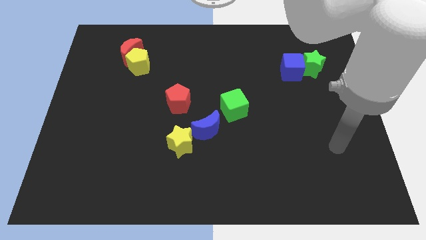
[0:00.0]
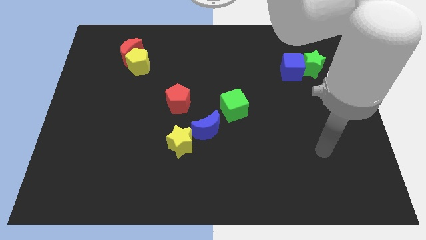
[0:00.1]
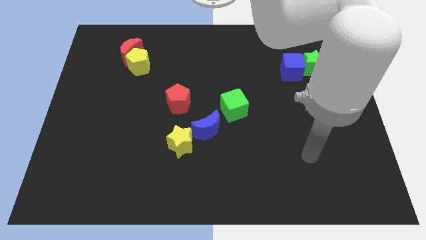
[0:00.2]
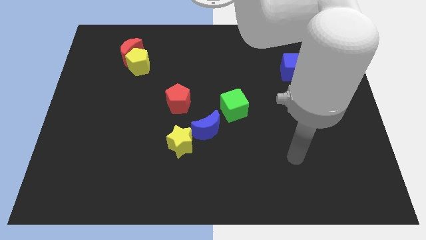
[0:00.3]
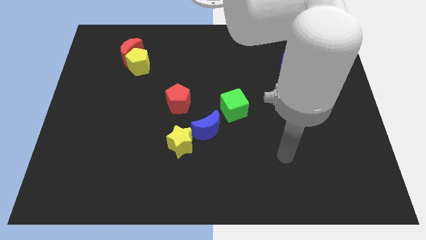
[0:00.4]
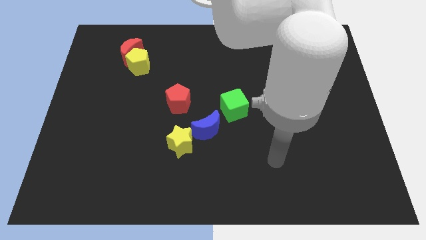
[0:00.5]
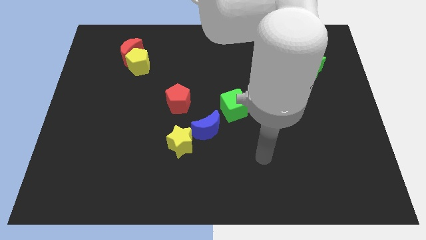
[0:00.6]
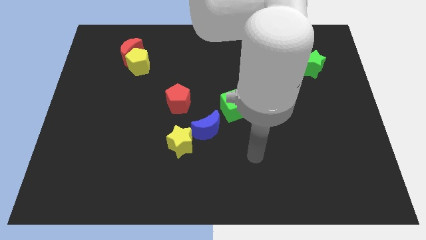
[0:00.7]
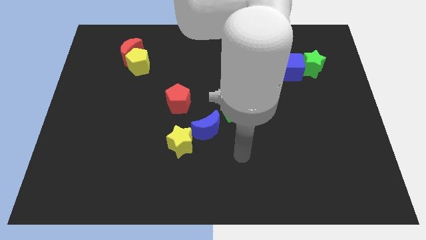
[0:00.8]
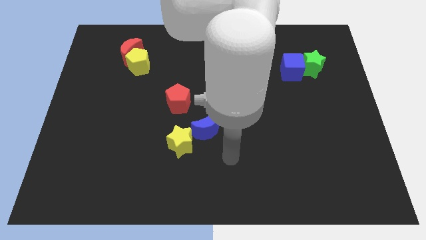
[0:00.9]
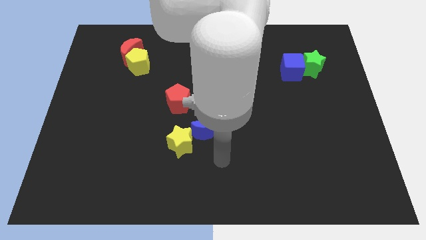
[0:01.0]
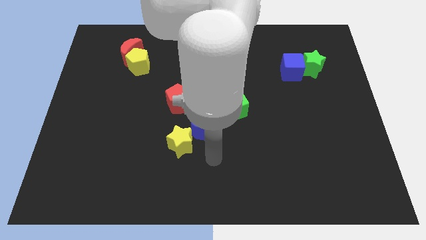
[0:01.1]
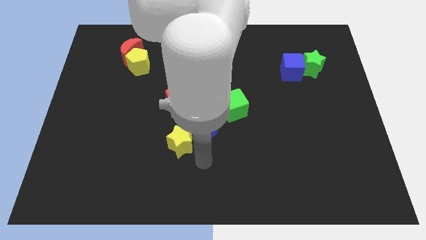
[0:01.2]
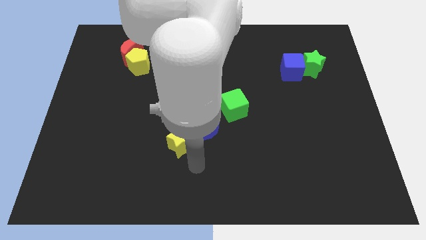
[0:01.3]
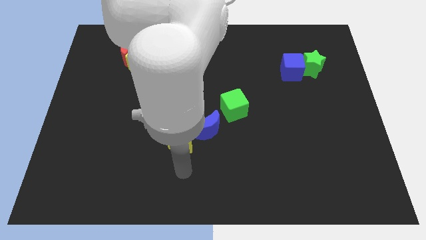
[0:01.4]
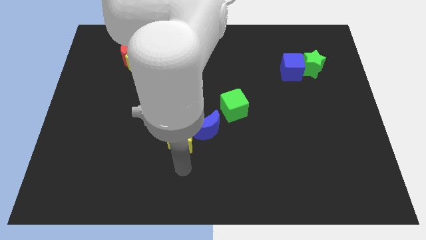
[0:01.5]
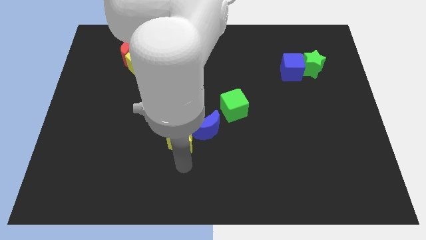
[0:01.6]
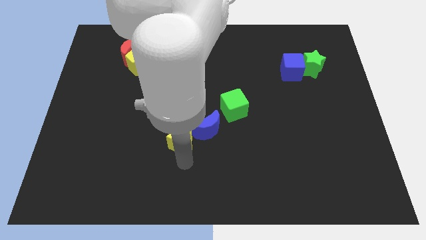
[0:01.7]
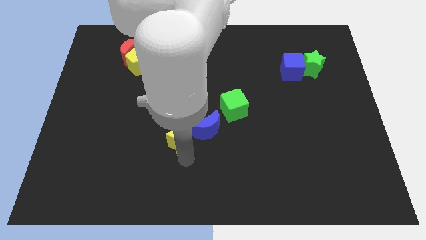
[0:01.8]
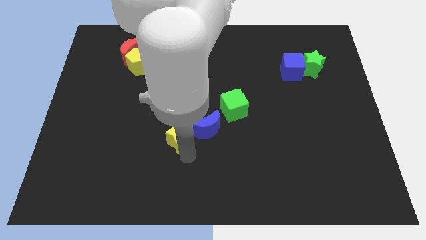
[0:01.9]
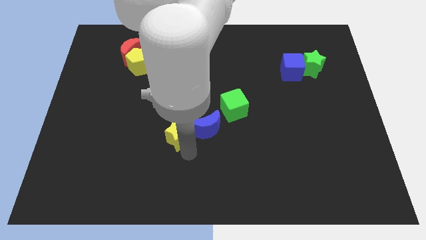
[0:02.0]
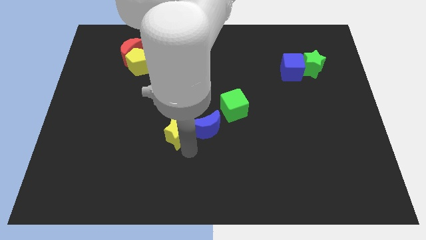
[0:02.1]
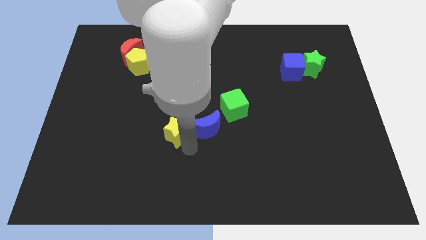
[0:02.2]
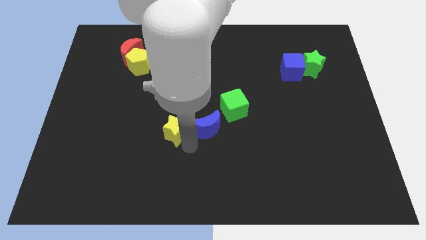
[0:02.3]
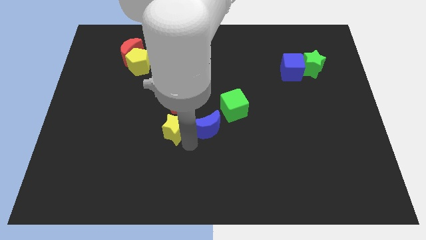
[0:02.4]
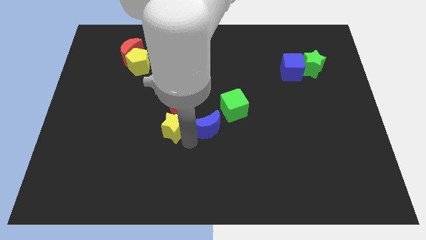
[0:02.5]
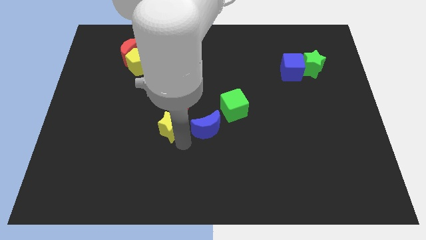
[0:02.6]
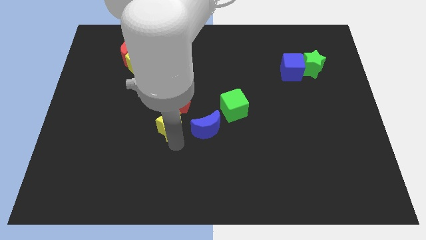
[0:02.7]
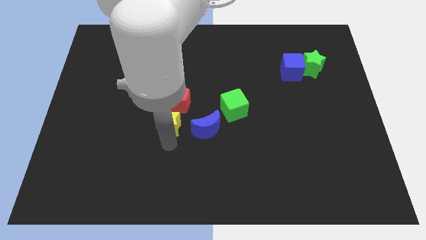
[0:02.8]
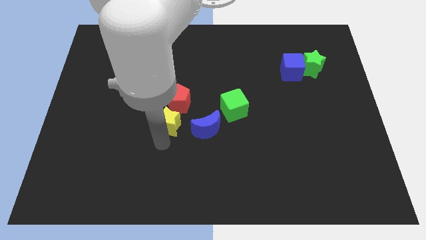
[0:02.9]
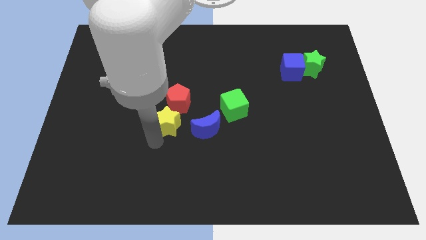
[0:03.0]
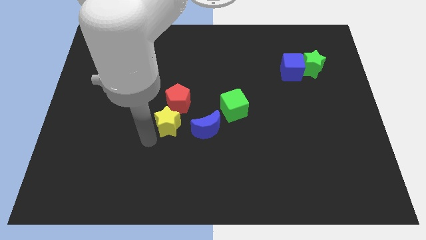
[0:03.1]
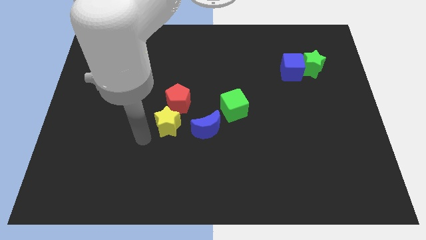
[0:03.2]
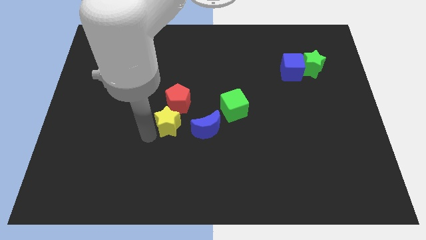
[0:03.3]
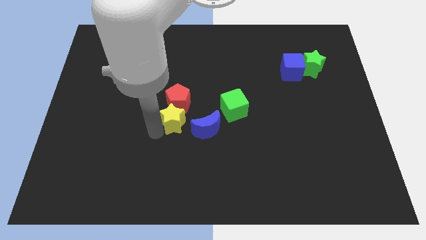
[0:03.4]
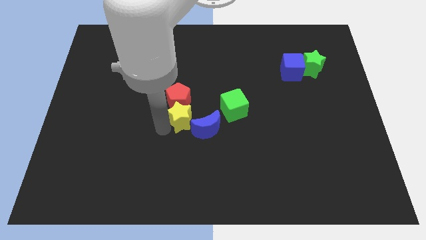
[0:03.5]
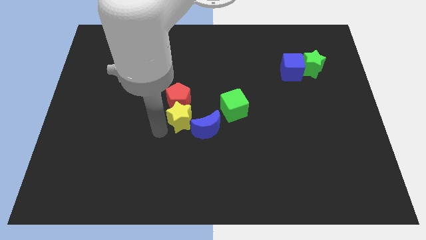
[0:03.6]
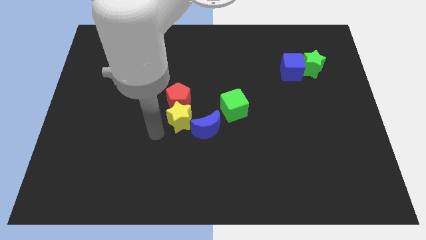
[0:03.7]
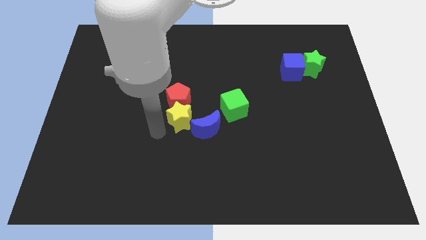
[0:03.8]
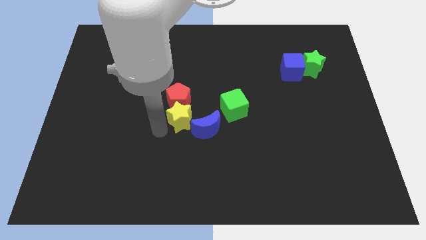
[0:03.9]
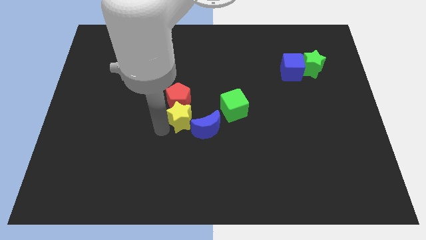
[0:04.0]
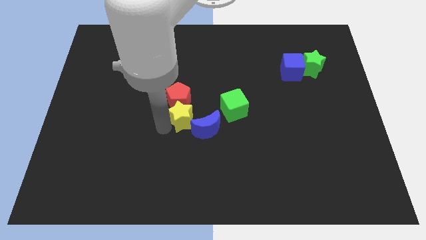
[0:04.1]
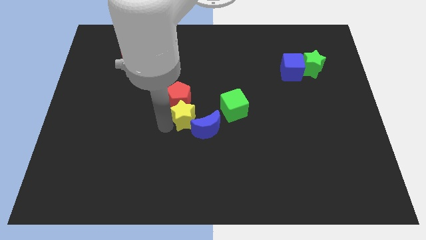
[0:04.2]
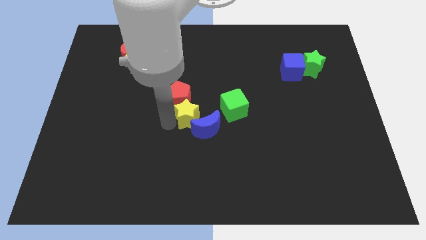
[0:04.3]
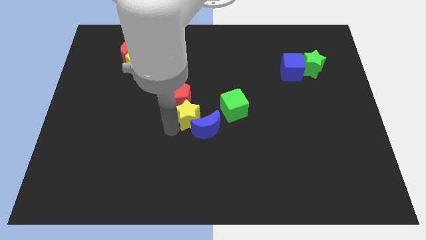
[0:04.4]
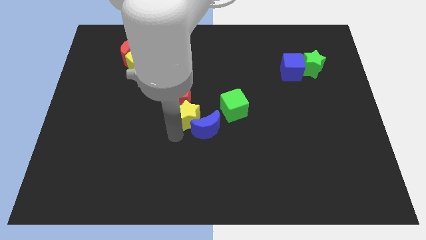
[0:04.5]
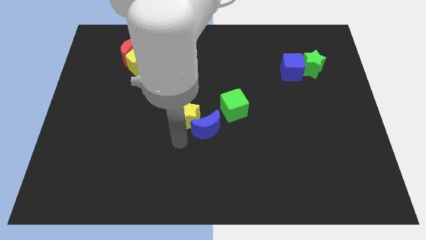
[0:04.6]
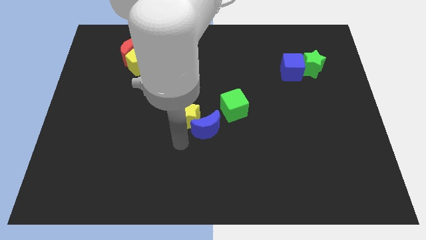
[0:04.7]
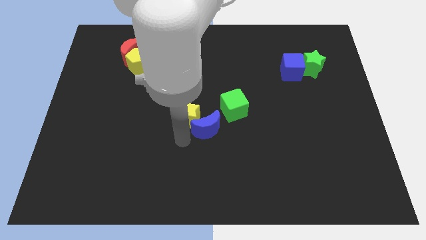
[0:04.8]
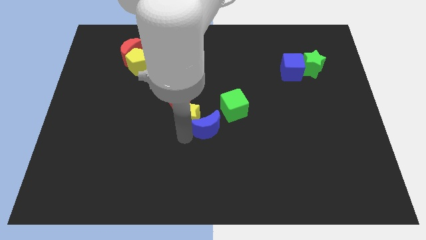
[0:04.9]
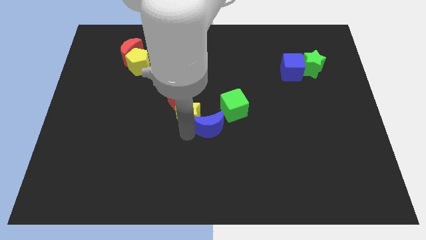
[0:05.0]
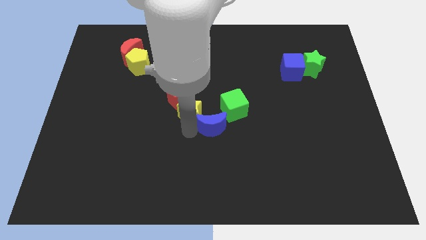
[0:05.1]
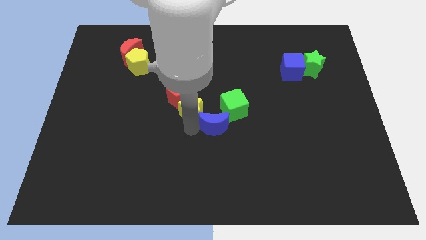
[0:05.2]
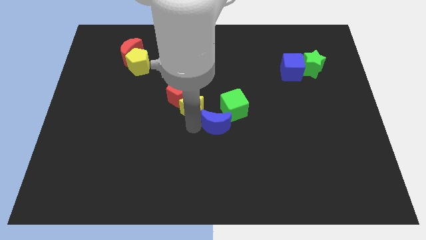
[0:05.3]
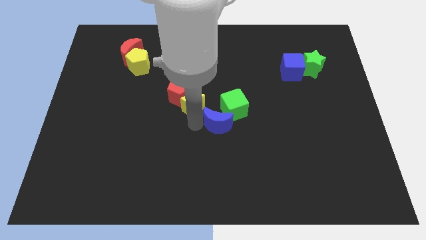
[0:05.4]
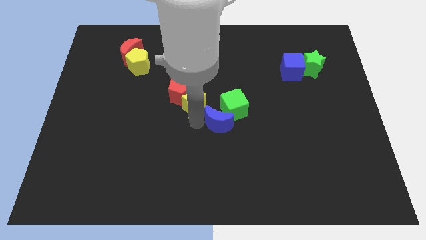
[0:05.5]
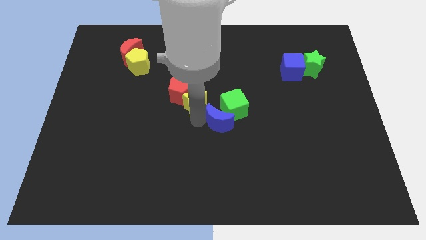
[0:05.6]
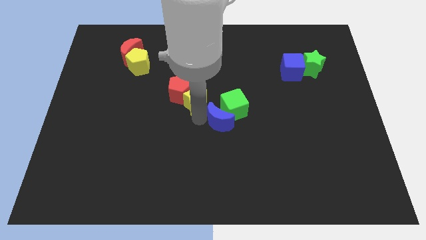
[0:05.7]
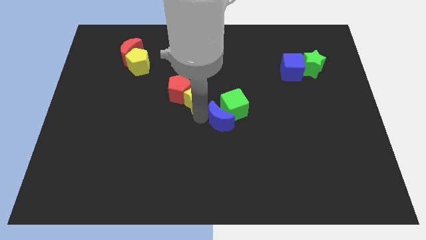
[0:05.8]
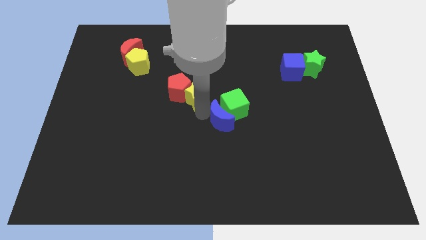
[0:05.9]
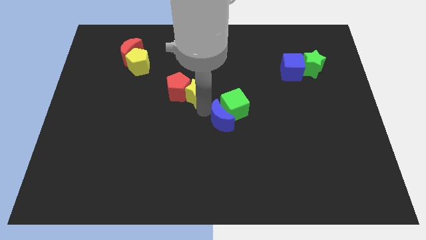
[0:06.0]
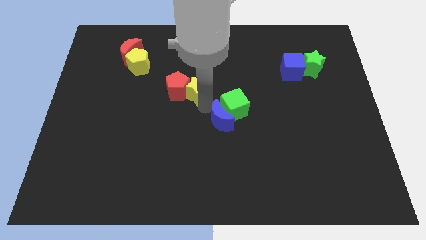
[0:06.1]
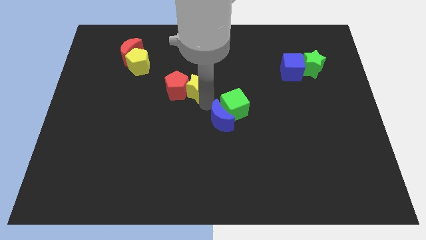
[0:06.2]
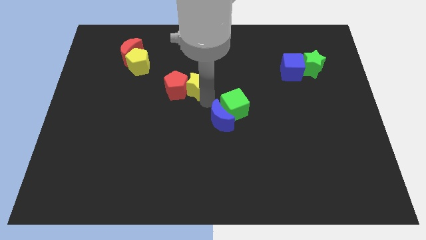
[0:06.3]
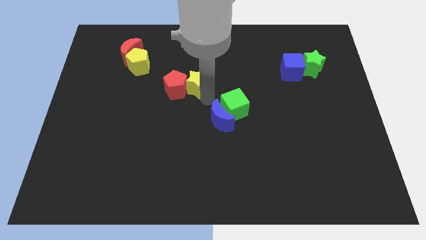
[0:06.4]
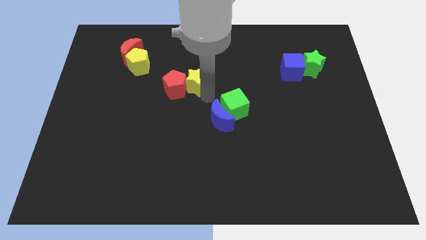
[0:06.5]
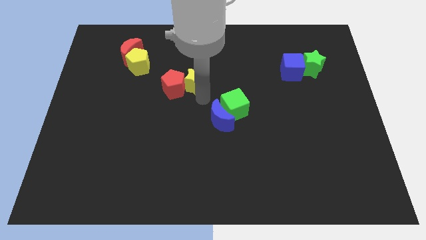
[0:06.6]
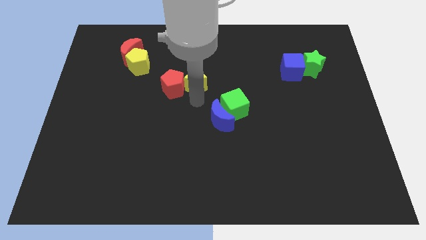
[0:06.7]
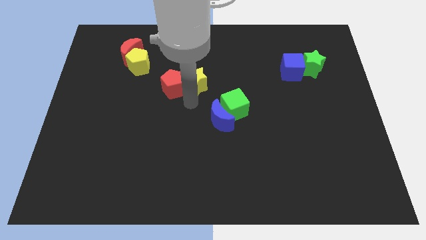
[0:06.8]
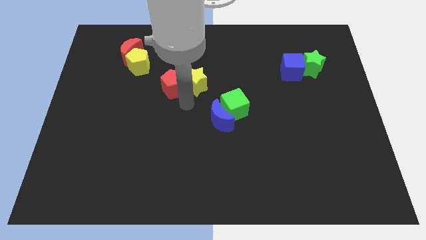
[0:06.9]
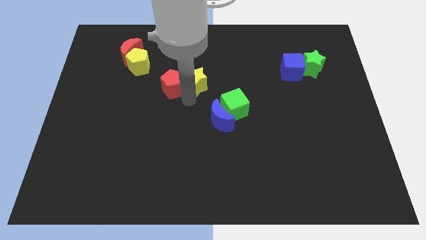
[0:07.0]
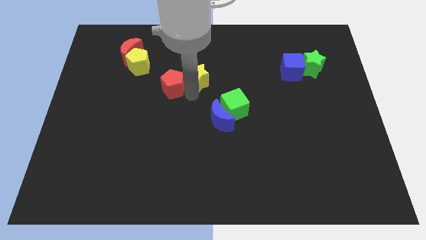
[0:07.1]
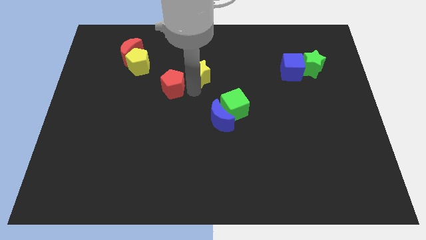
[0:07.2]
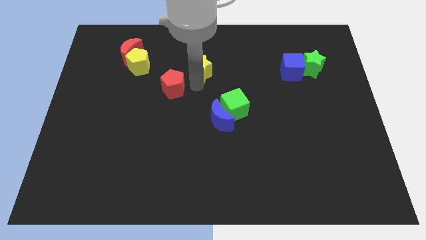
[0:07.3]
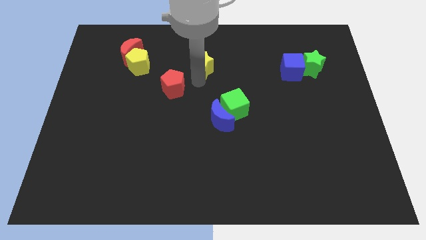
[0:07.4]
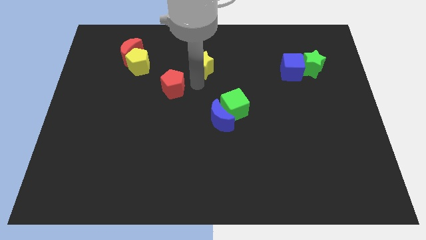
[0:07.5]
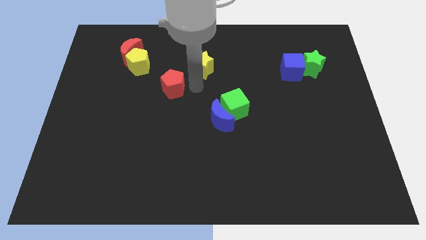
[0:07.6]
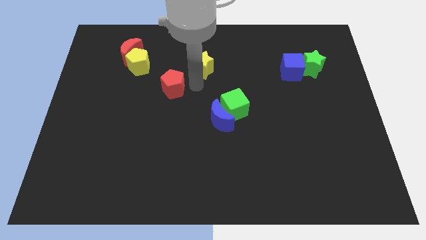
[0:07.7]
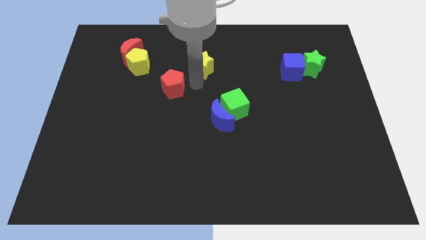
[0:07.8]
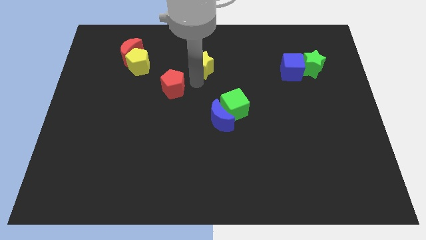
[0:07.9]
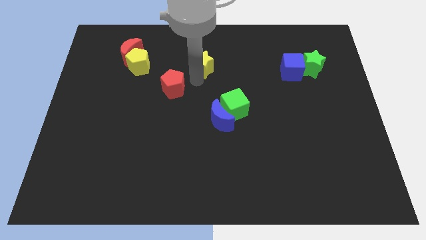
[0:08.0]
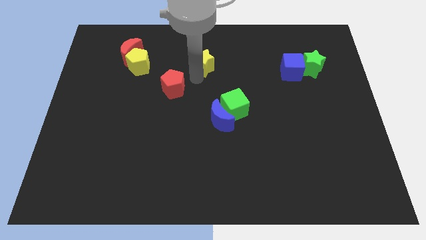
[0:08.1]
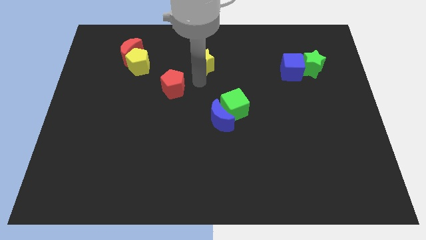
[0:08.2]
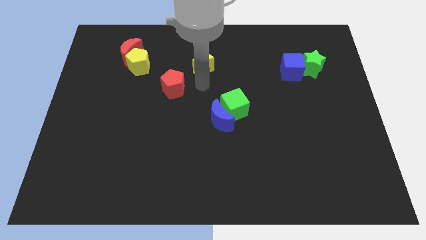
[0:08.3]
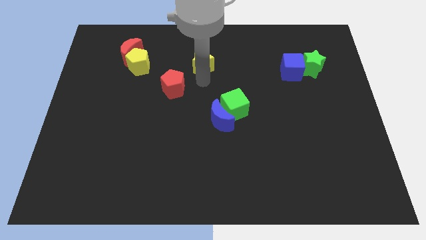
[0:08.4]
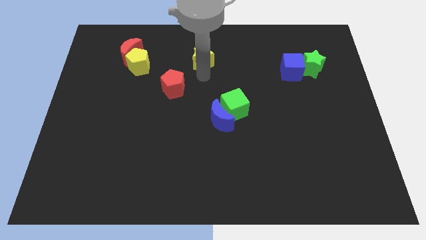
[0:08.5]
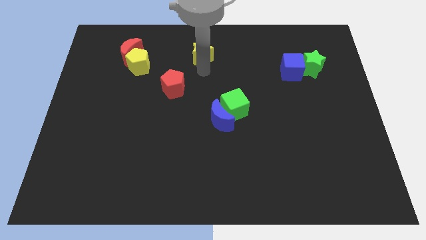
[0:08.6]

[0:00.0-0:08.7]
slide the yellow star to the towards your base
